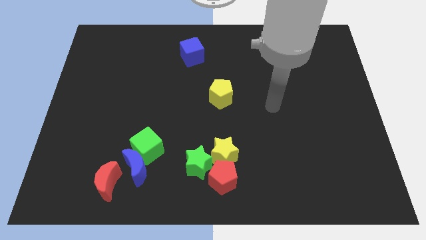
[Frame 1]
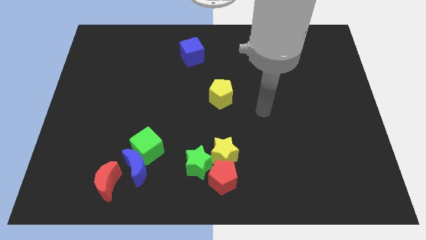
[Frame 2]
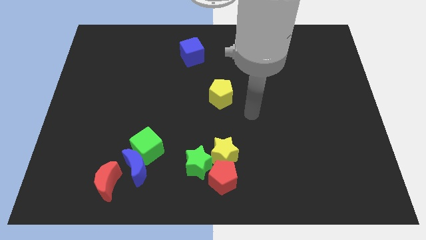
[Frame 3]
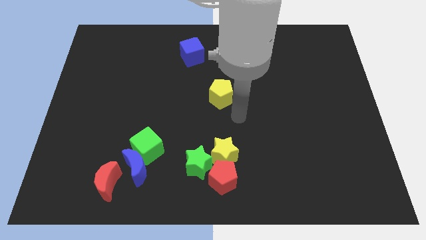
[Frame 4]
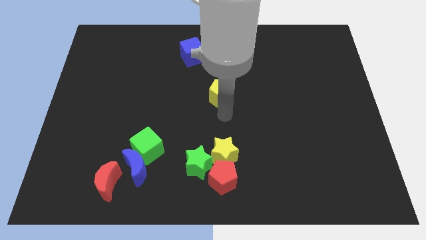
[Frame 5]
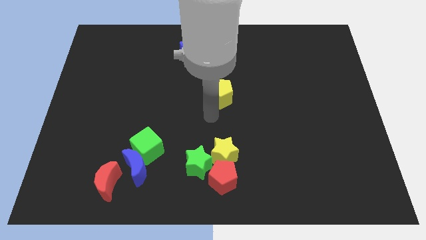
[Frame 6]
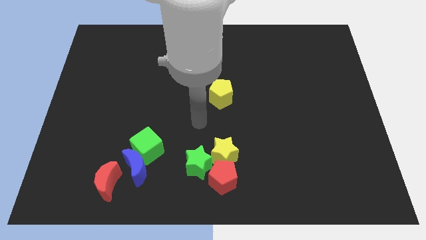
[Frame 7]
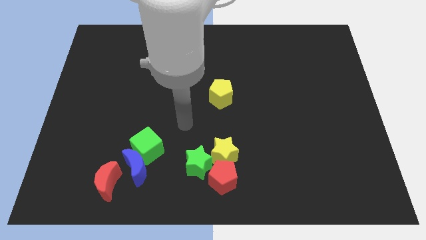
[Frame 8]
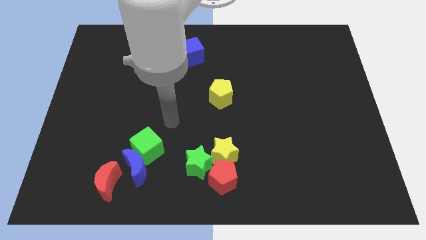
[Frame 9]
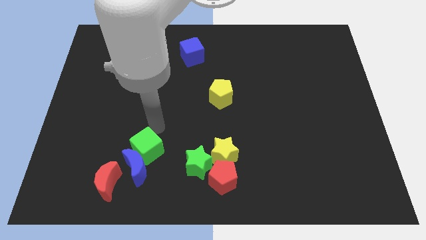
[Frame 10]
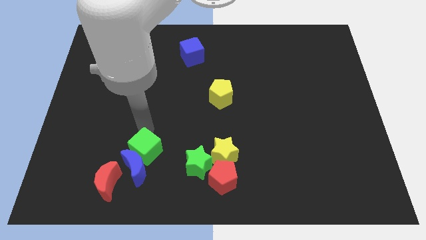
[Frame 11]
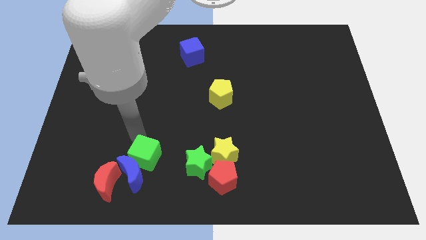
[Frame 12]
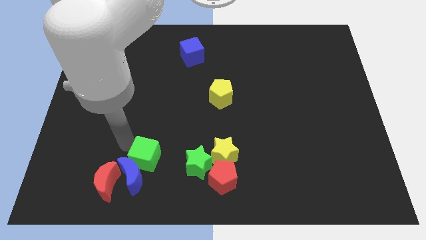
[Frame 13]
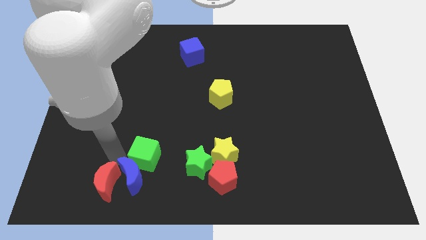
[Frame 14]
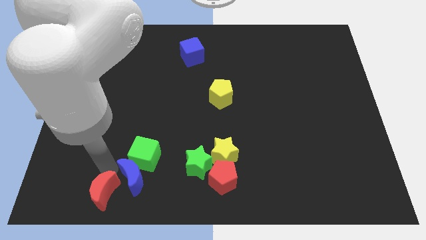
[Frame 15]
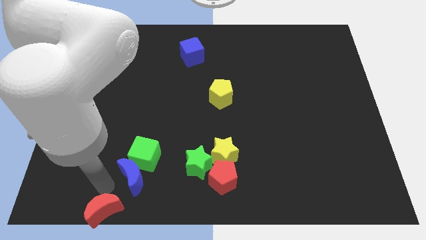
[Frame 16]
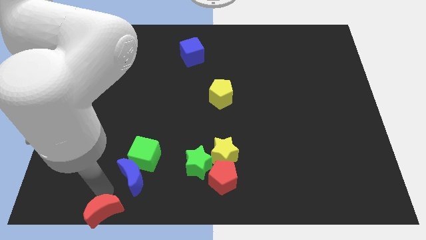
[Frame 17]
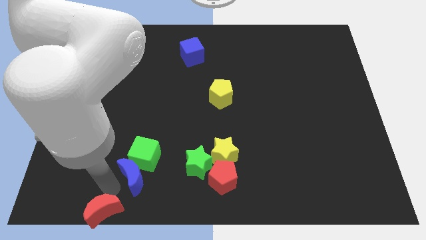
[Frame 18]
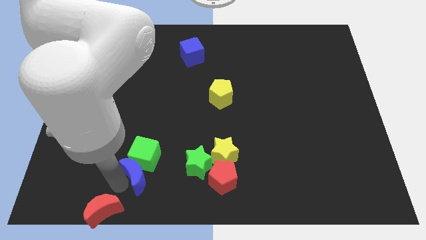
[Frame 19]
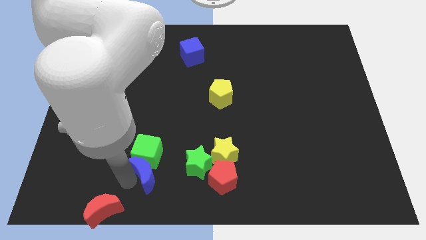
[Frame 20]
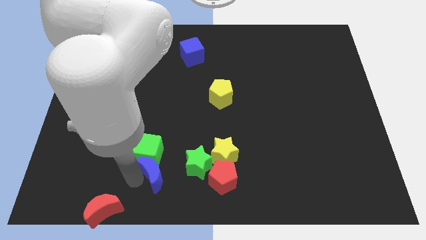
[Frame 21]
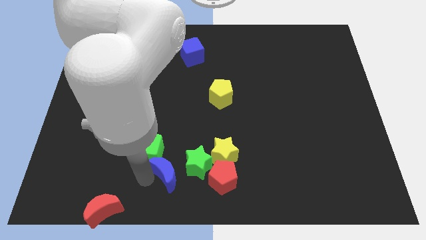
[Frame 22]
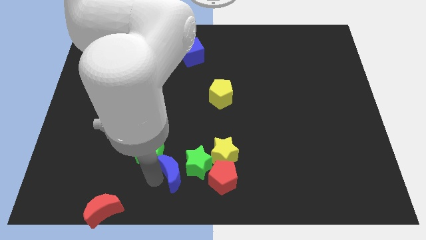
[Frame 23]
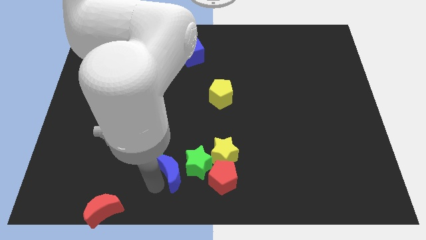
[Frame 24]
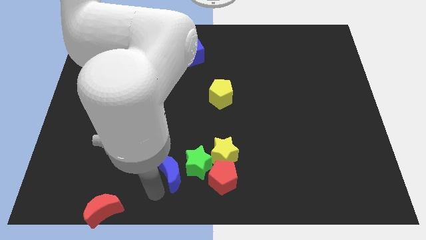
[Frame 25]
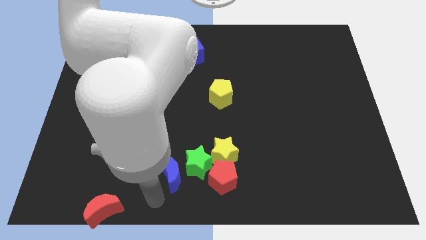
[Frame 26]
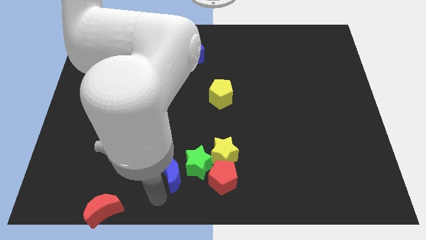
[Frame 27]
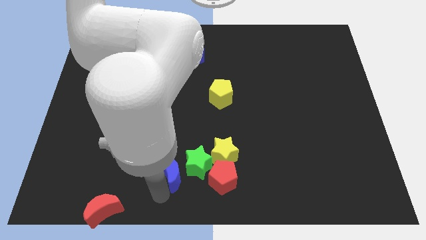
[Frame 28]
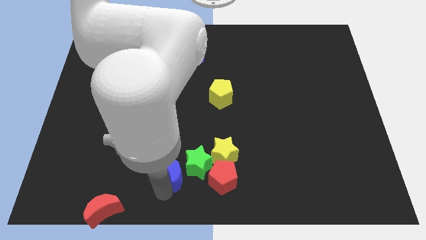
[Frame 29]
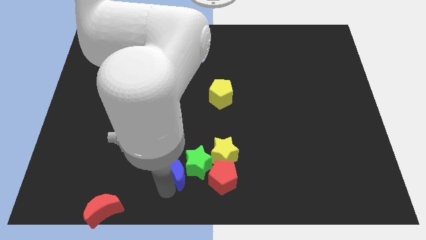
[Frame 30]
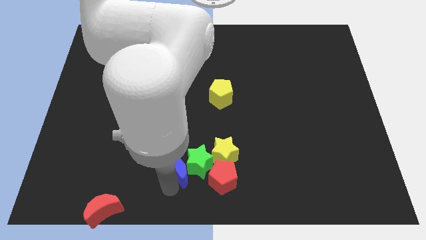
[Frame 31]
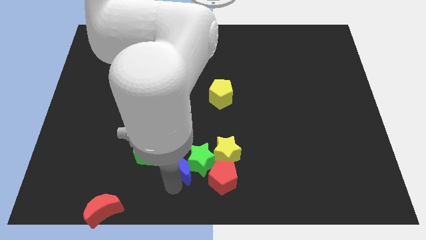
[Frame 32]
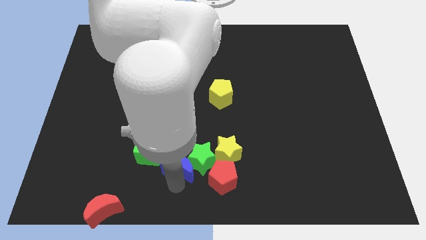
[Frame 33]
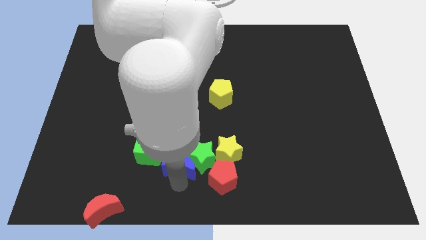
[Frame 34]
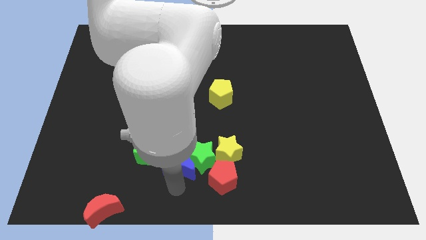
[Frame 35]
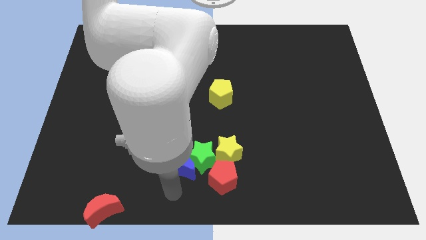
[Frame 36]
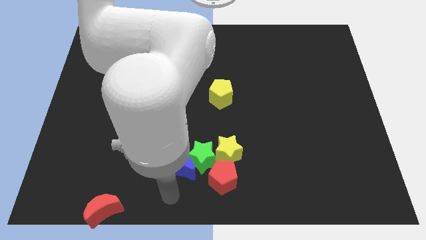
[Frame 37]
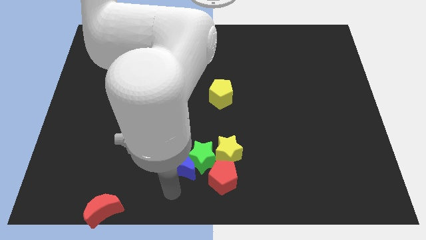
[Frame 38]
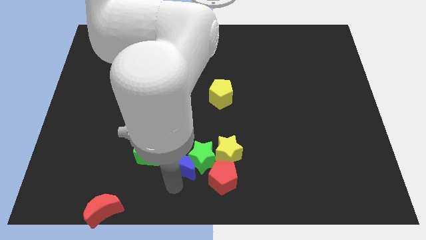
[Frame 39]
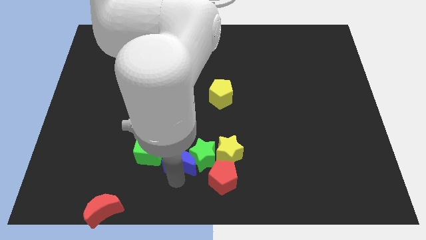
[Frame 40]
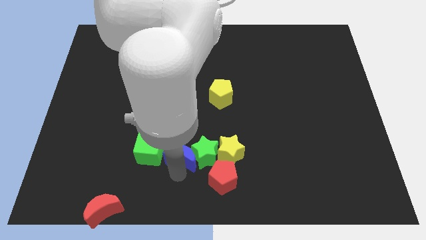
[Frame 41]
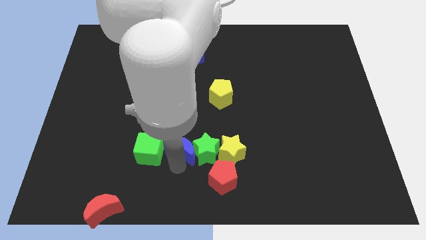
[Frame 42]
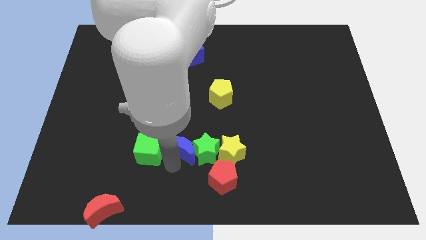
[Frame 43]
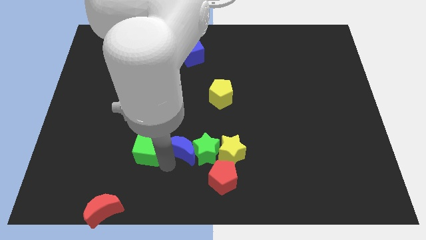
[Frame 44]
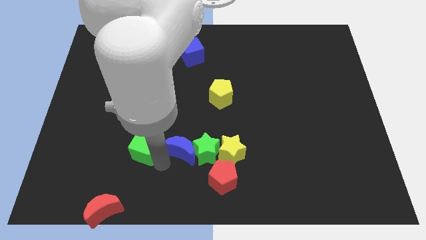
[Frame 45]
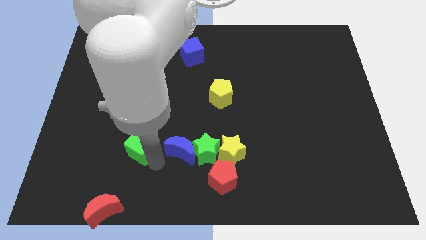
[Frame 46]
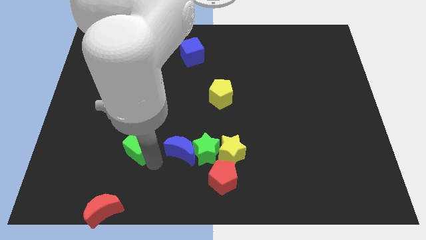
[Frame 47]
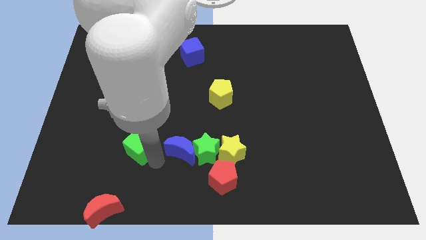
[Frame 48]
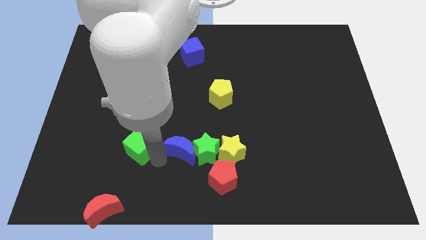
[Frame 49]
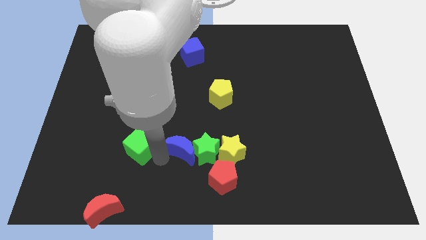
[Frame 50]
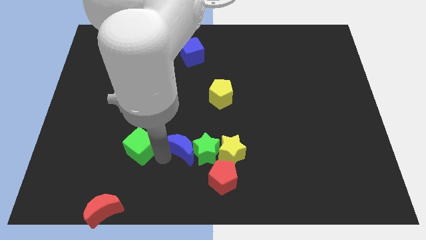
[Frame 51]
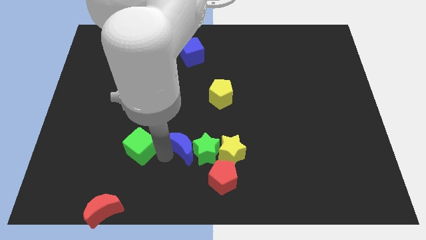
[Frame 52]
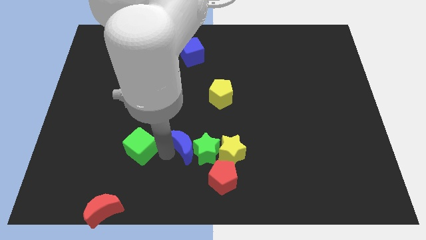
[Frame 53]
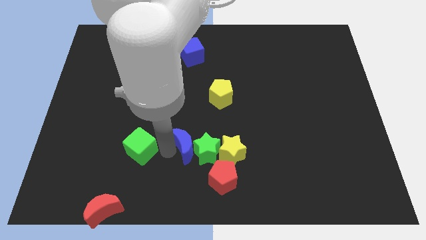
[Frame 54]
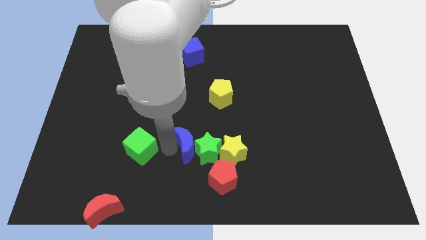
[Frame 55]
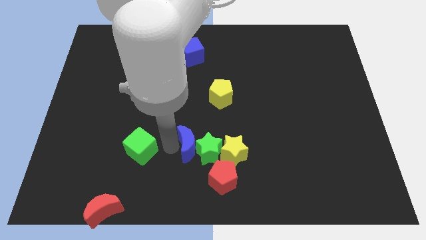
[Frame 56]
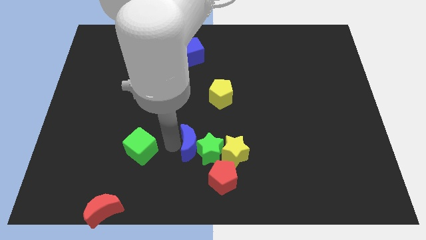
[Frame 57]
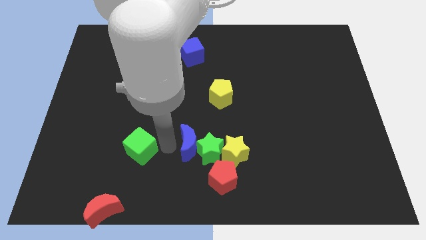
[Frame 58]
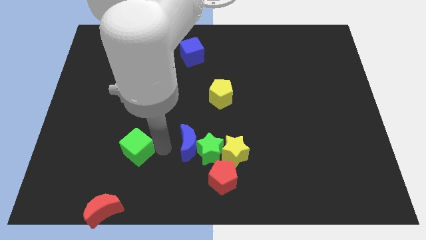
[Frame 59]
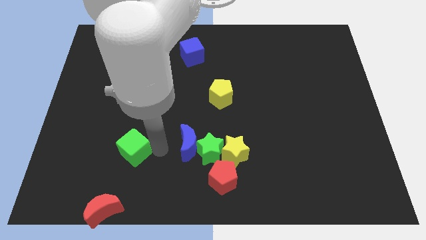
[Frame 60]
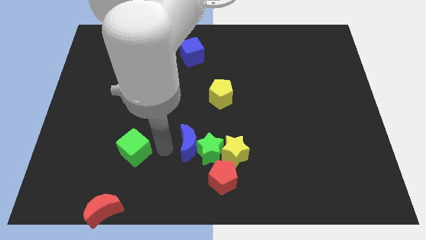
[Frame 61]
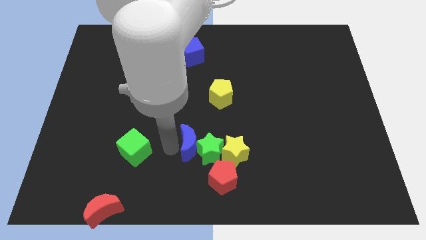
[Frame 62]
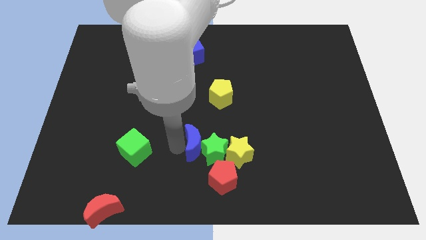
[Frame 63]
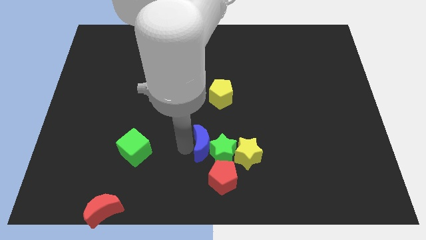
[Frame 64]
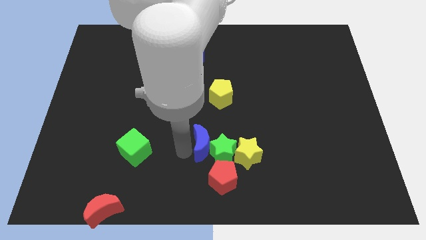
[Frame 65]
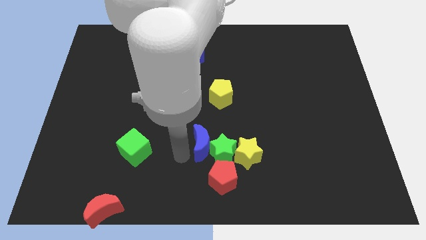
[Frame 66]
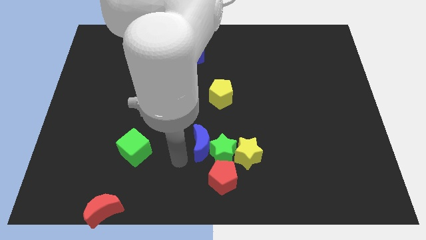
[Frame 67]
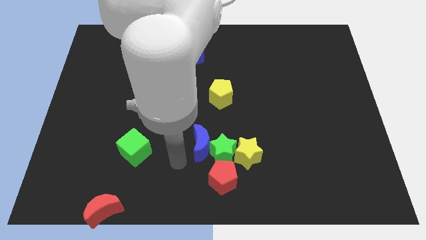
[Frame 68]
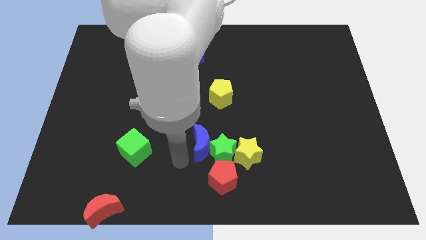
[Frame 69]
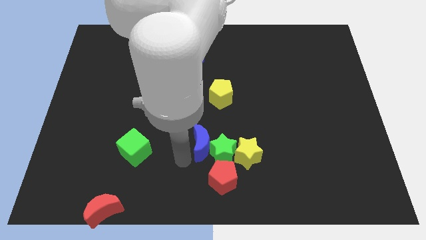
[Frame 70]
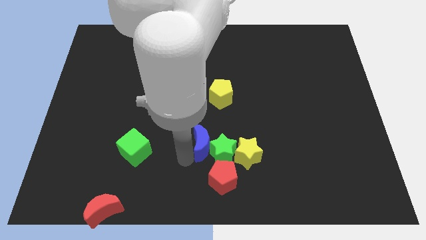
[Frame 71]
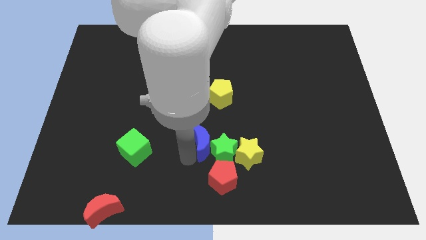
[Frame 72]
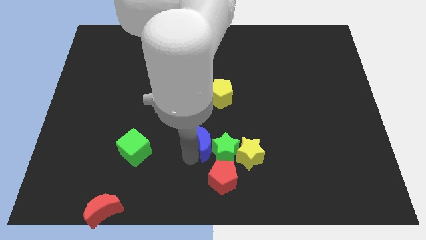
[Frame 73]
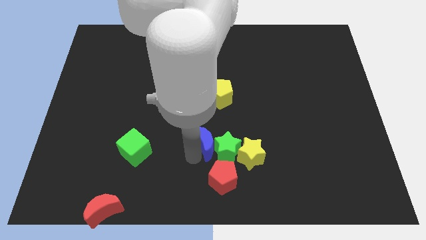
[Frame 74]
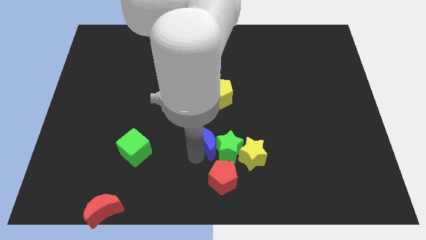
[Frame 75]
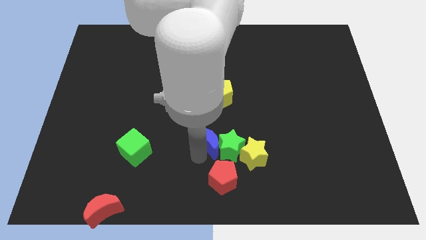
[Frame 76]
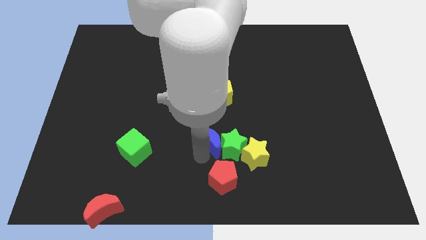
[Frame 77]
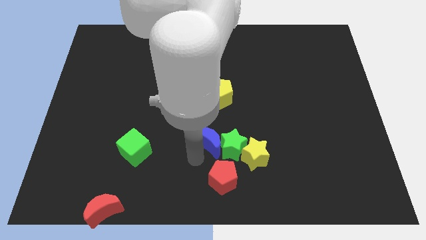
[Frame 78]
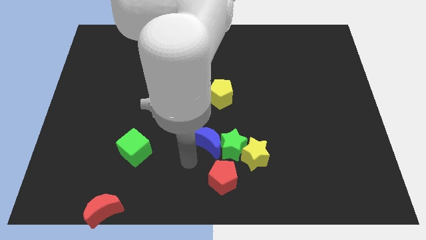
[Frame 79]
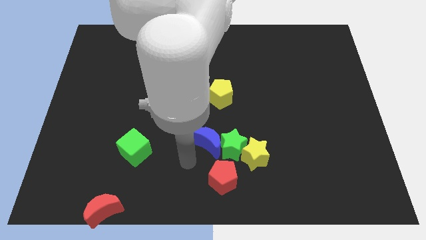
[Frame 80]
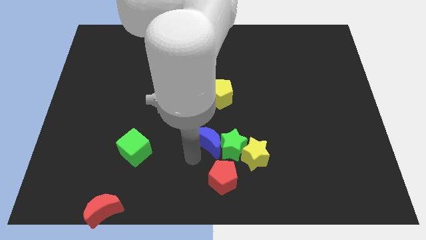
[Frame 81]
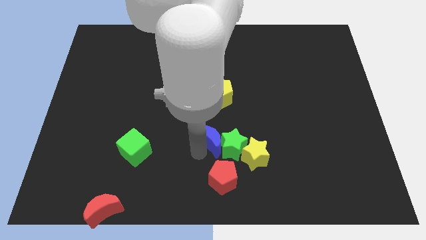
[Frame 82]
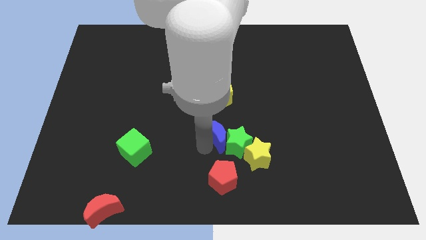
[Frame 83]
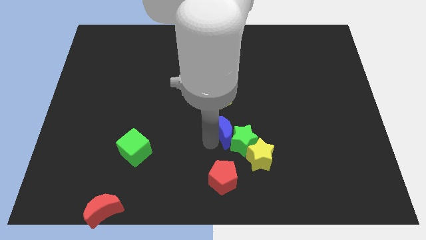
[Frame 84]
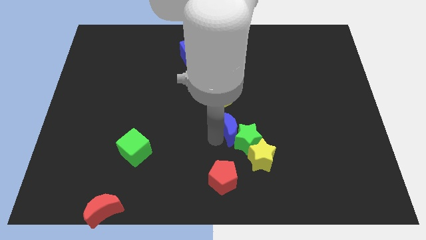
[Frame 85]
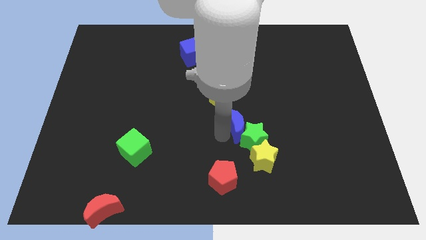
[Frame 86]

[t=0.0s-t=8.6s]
push the blue moon diagonally down and to the right of the yellow pentagon
